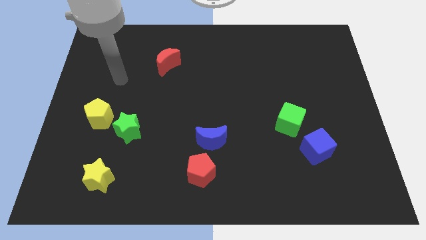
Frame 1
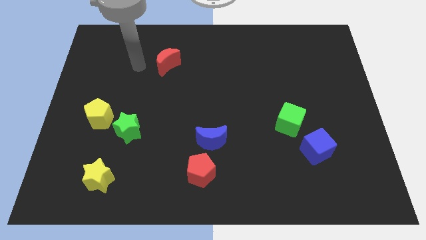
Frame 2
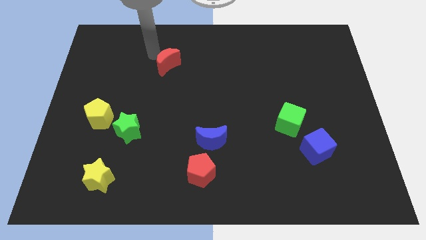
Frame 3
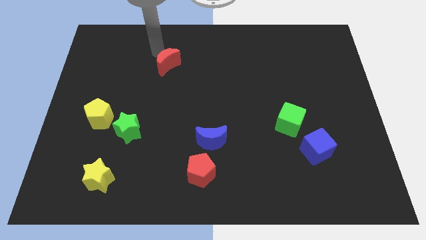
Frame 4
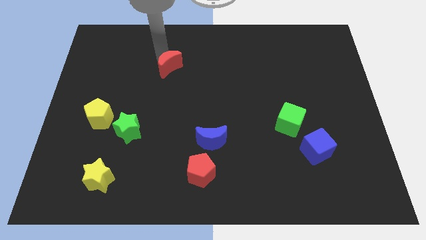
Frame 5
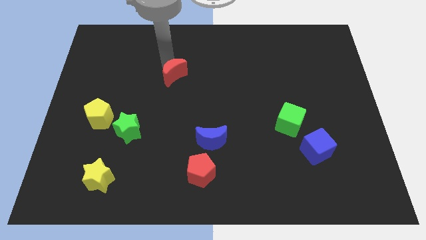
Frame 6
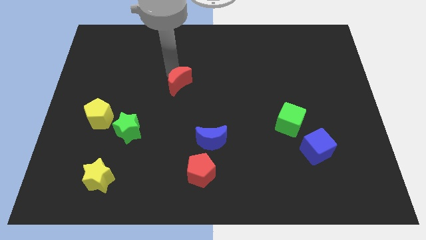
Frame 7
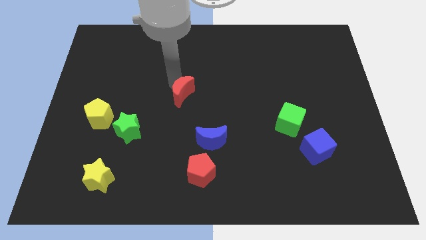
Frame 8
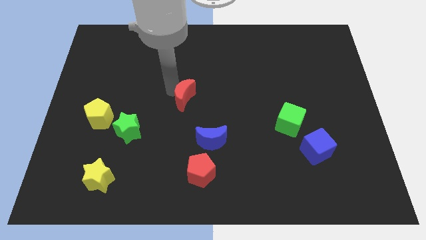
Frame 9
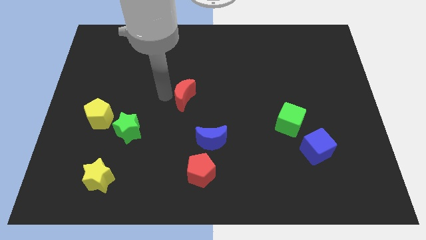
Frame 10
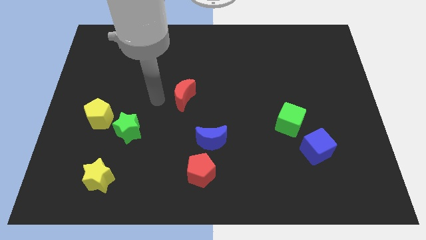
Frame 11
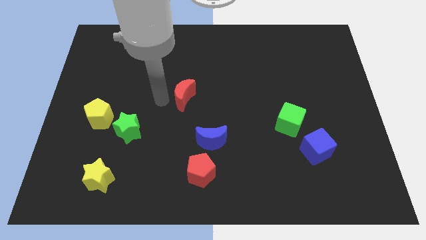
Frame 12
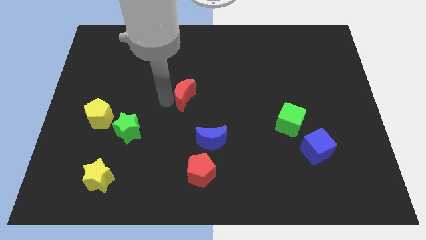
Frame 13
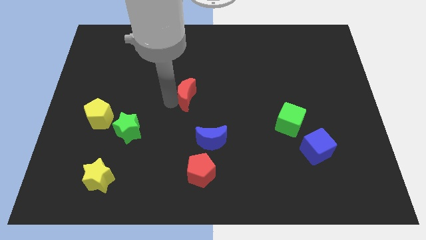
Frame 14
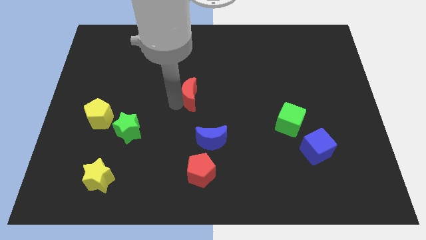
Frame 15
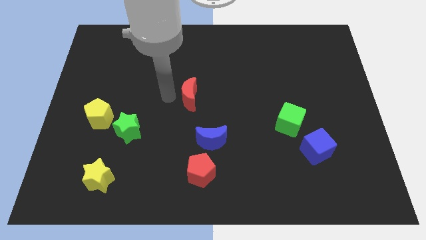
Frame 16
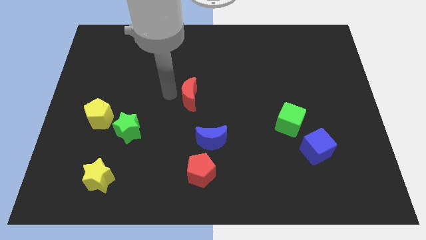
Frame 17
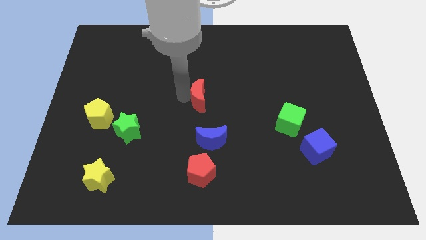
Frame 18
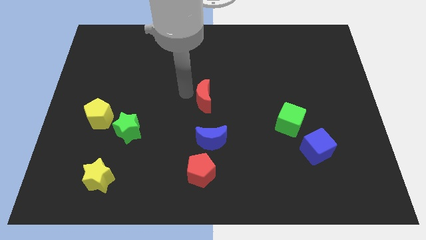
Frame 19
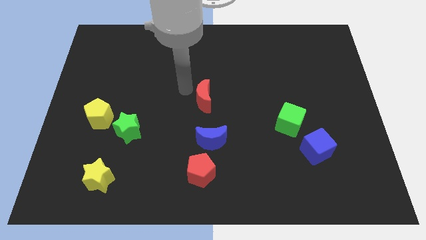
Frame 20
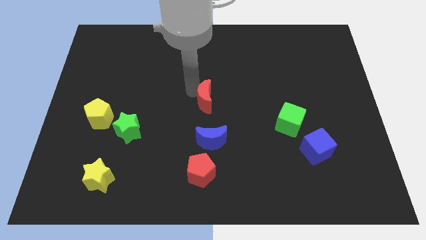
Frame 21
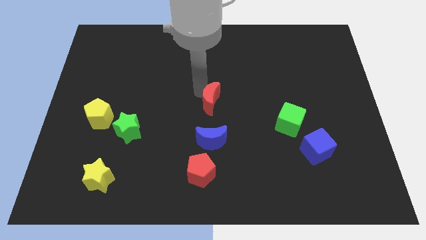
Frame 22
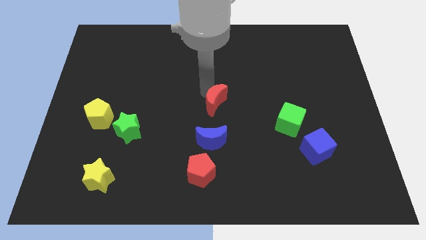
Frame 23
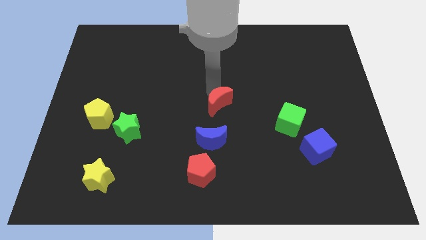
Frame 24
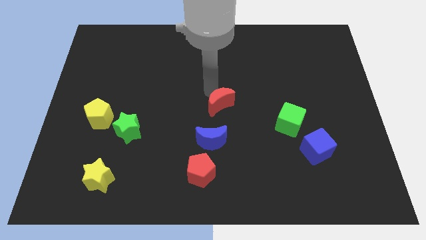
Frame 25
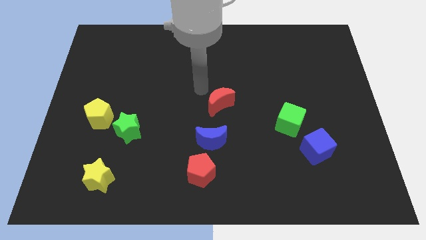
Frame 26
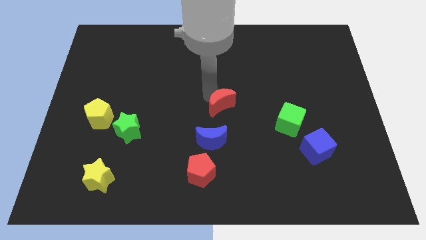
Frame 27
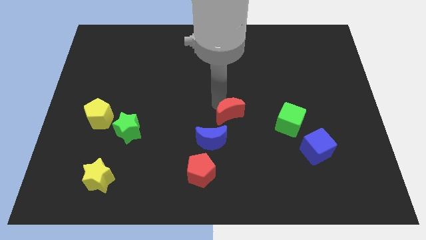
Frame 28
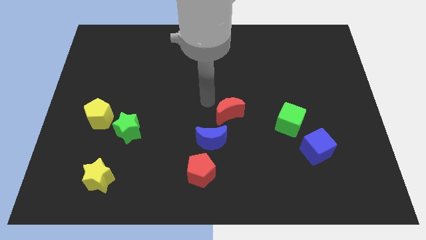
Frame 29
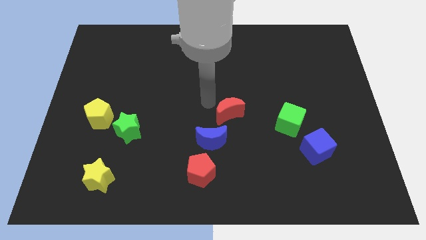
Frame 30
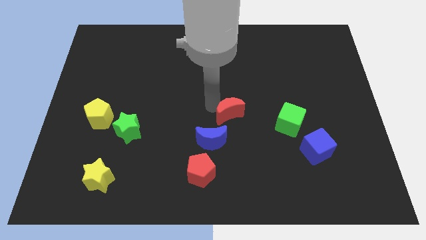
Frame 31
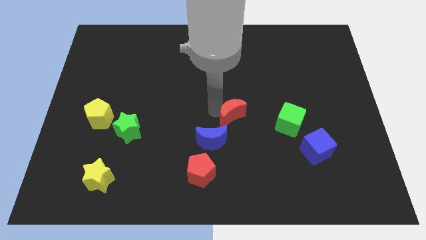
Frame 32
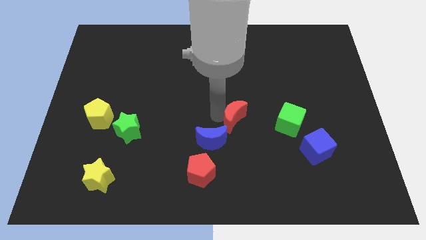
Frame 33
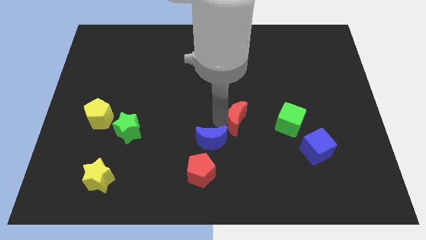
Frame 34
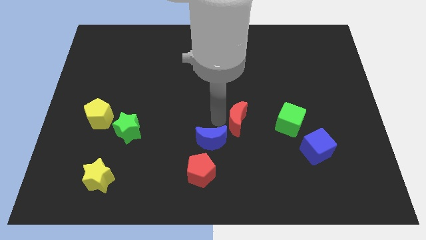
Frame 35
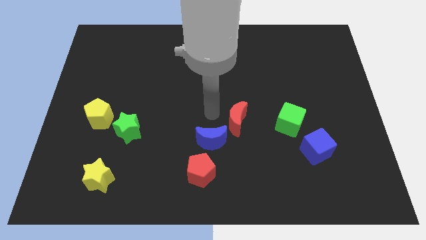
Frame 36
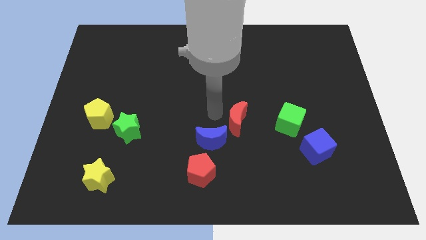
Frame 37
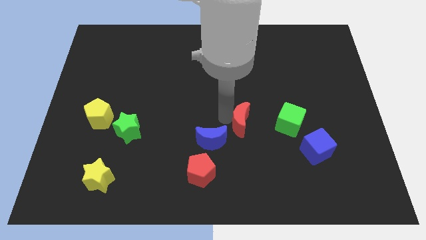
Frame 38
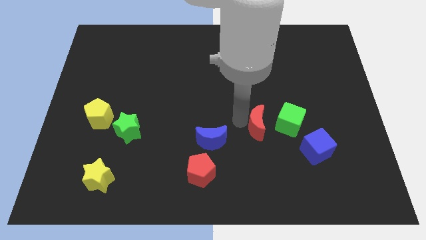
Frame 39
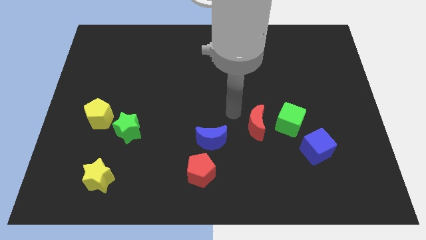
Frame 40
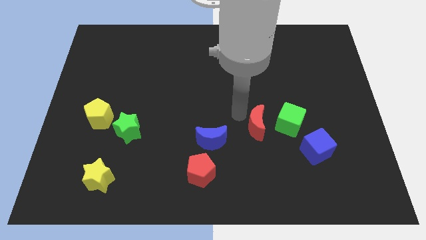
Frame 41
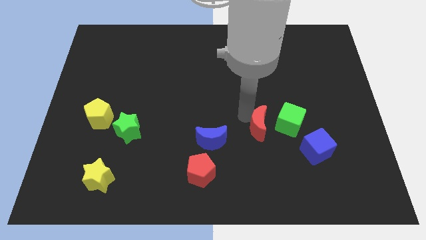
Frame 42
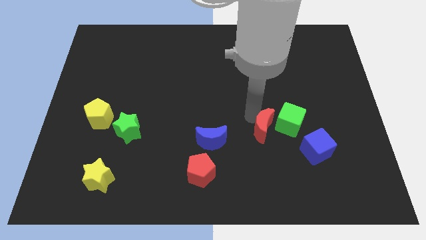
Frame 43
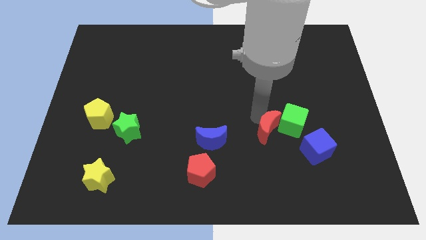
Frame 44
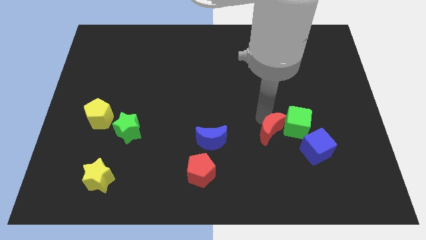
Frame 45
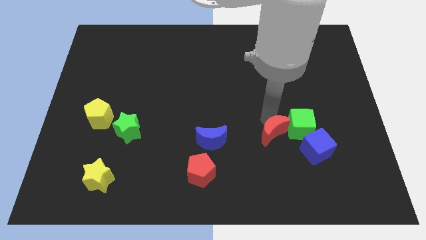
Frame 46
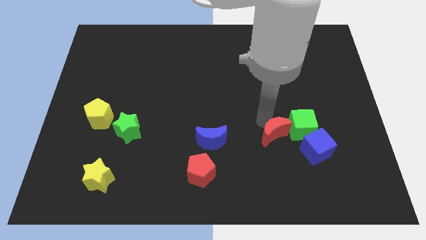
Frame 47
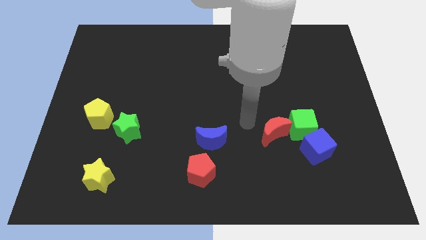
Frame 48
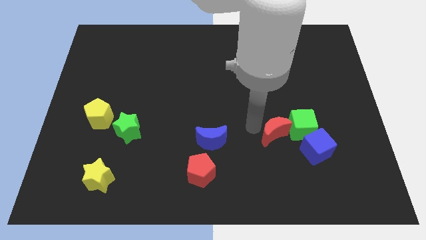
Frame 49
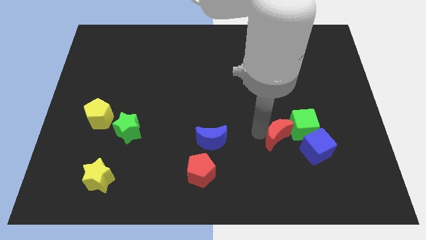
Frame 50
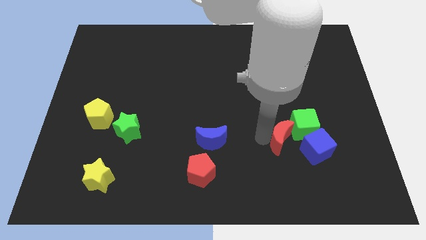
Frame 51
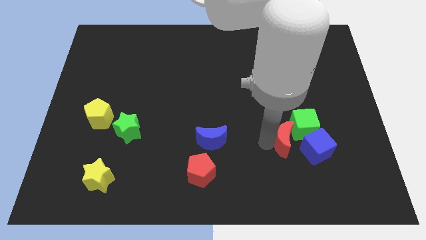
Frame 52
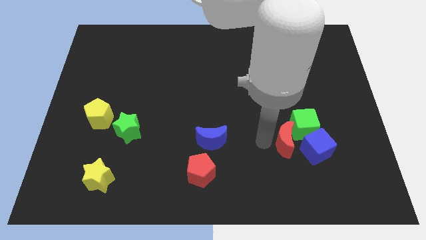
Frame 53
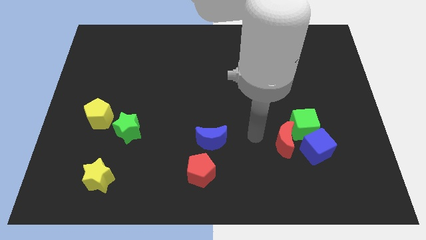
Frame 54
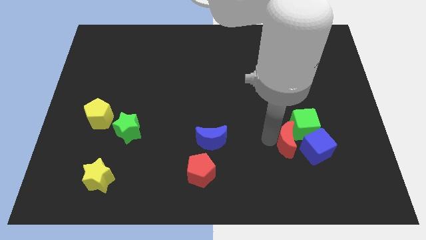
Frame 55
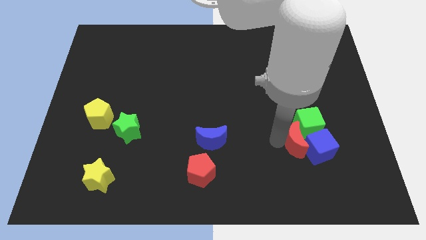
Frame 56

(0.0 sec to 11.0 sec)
push the red moon to the blue cube

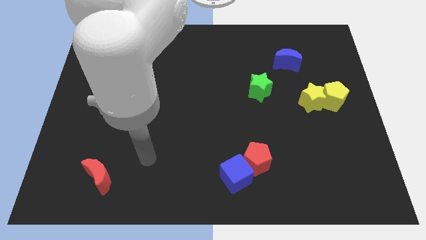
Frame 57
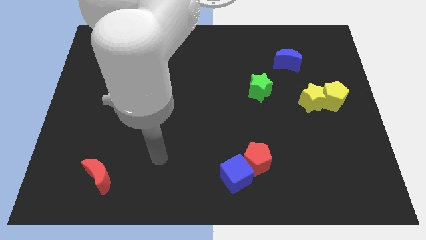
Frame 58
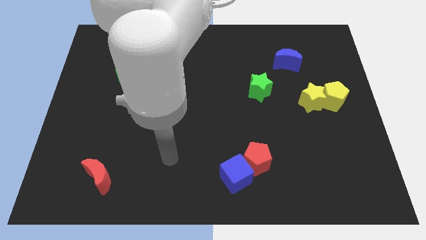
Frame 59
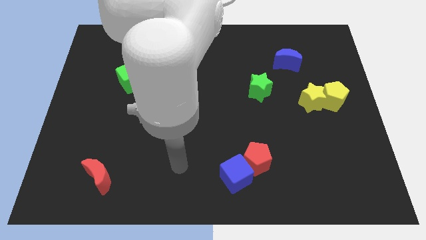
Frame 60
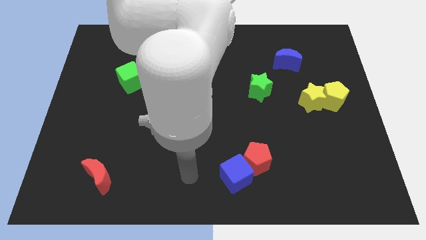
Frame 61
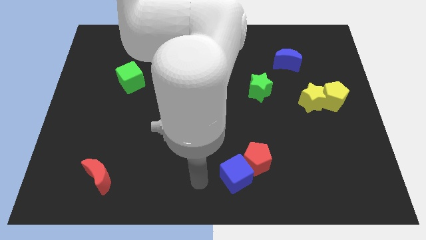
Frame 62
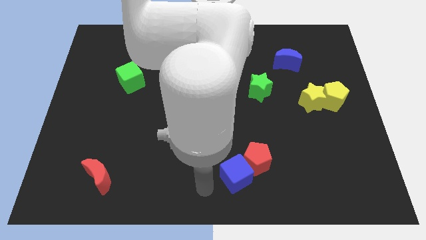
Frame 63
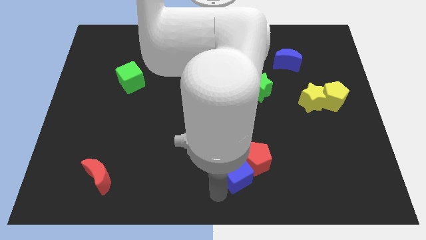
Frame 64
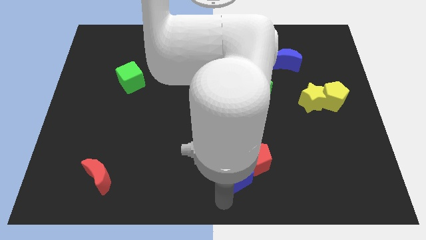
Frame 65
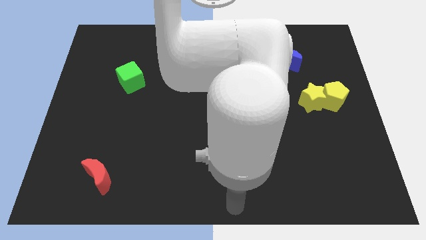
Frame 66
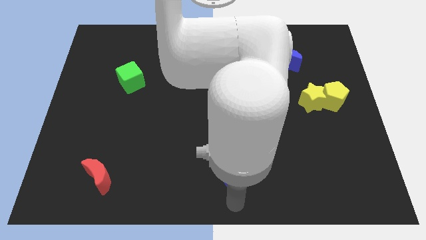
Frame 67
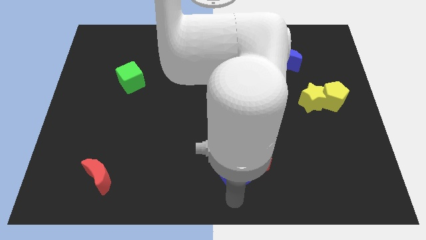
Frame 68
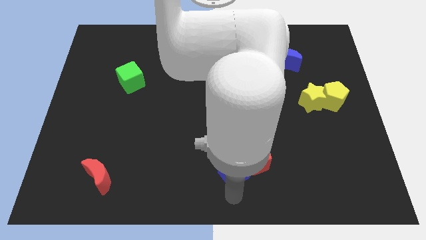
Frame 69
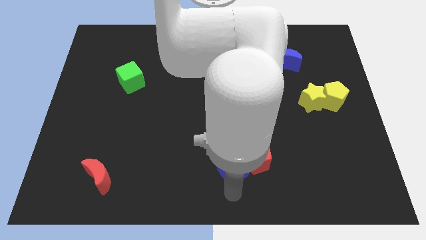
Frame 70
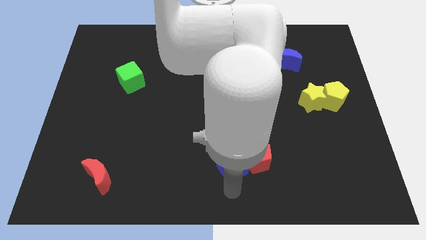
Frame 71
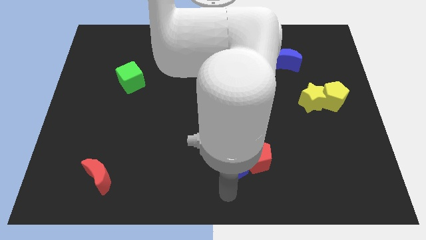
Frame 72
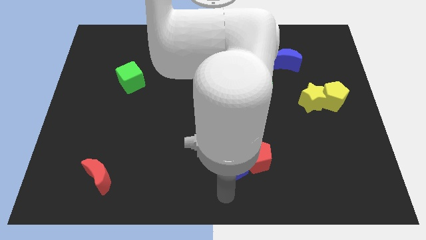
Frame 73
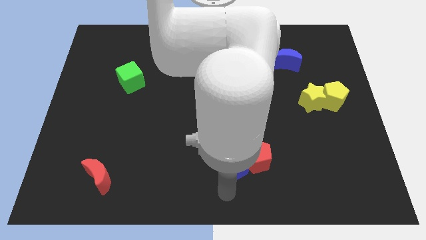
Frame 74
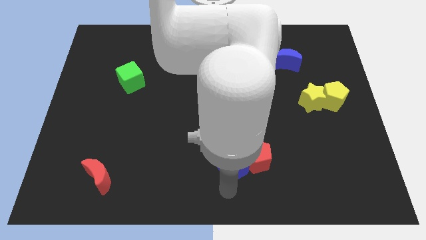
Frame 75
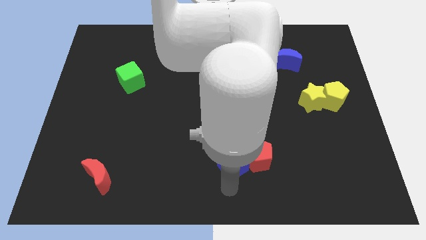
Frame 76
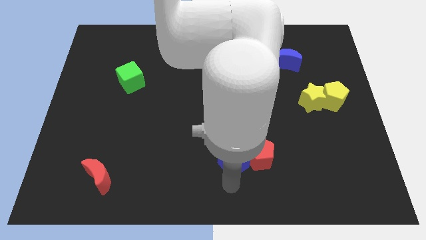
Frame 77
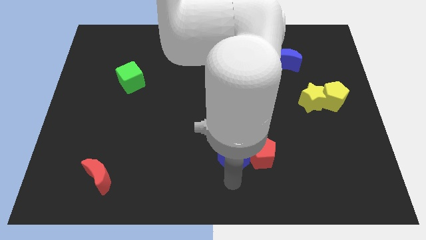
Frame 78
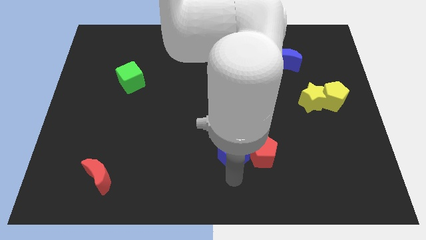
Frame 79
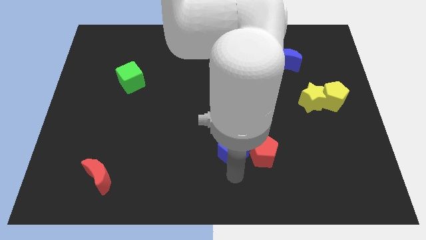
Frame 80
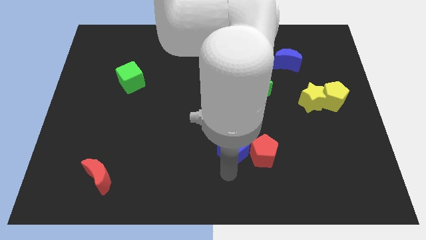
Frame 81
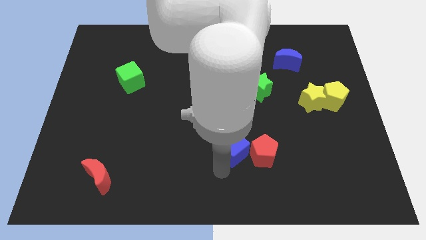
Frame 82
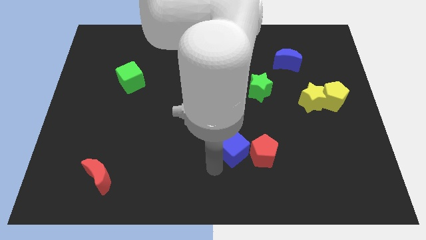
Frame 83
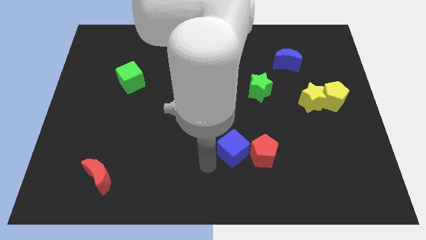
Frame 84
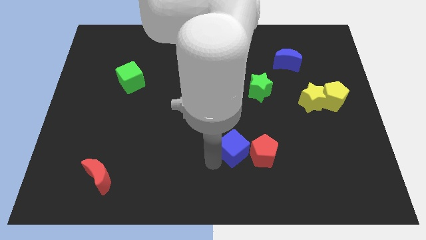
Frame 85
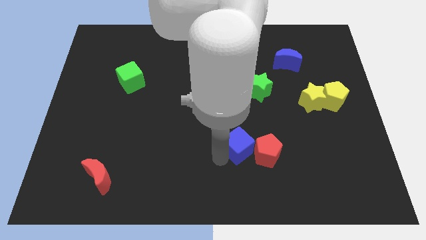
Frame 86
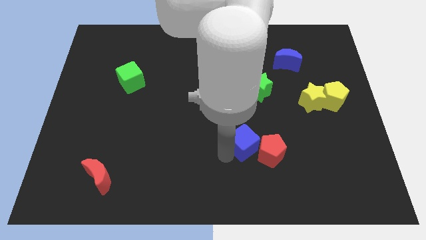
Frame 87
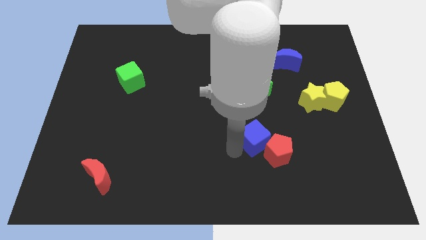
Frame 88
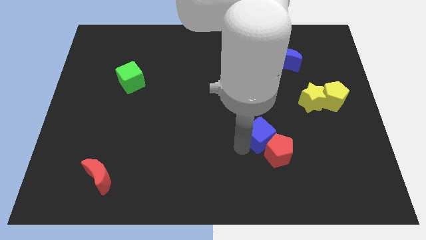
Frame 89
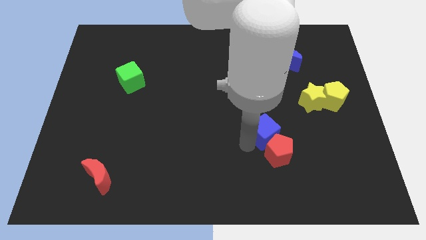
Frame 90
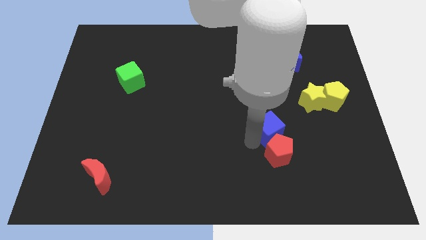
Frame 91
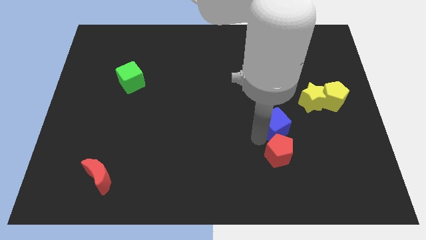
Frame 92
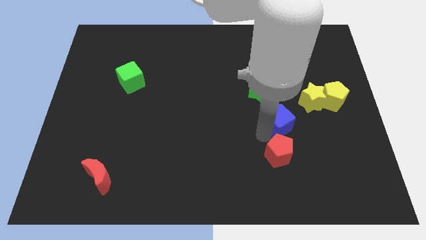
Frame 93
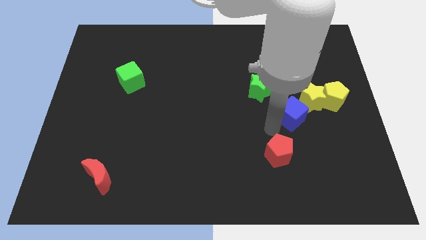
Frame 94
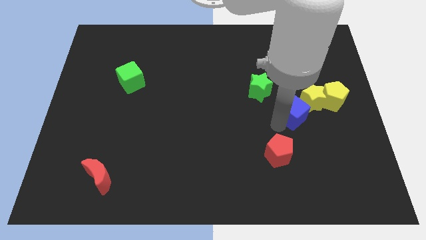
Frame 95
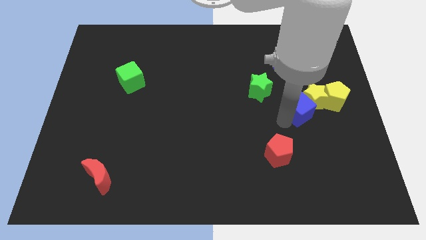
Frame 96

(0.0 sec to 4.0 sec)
move the blue cube close to the yellow star
